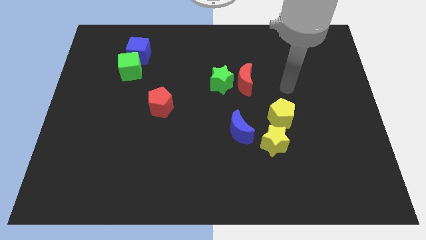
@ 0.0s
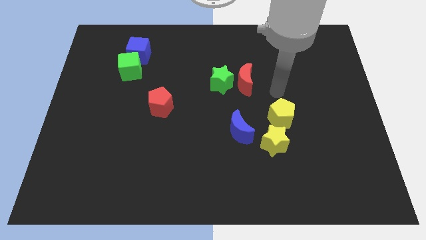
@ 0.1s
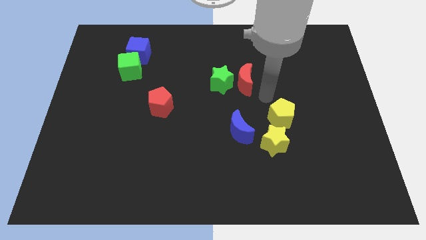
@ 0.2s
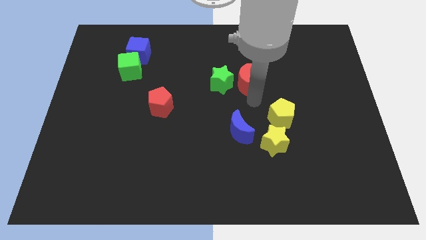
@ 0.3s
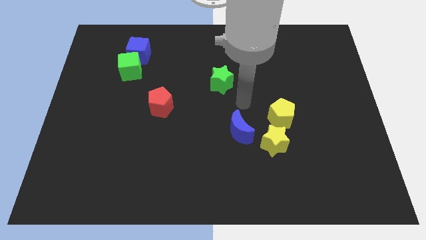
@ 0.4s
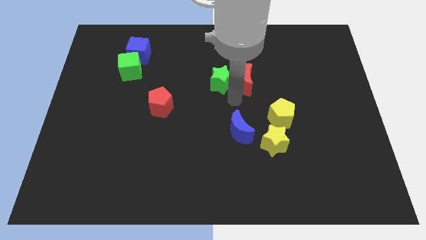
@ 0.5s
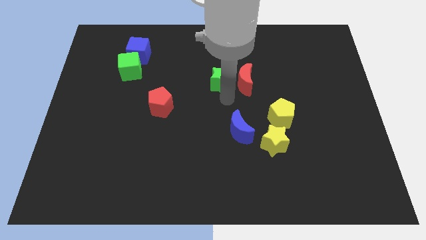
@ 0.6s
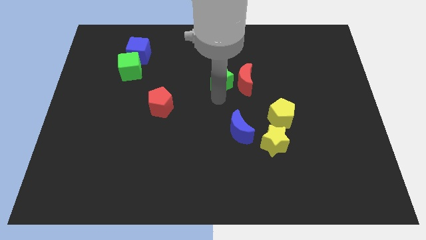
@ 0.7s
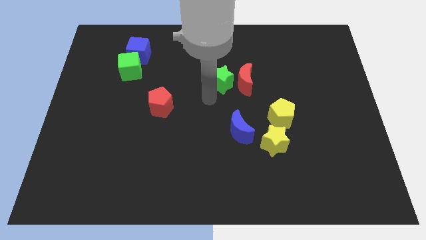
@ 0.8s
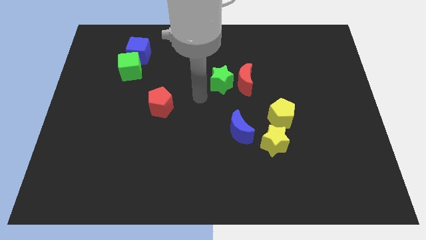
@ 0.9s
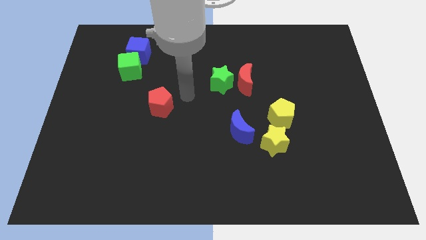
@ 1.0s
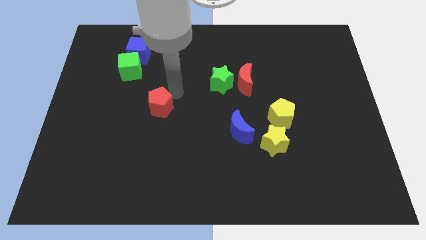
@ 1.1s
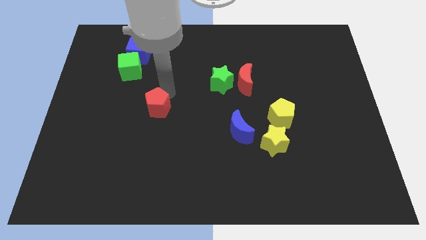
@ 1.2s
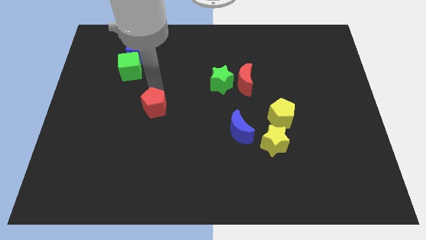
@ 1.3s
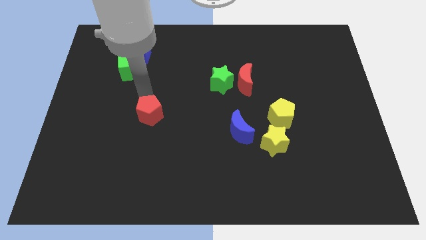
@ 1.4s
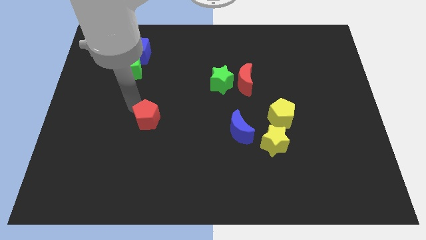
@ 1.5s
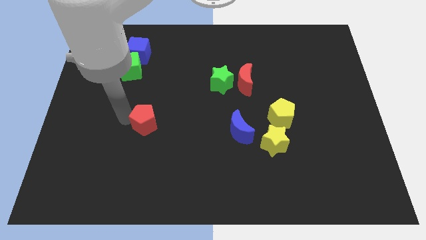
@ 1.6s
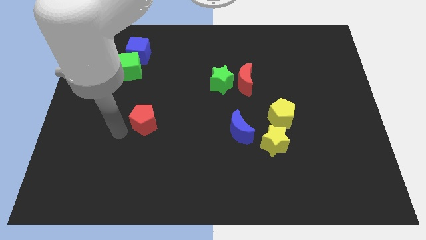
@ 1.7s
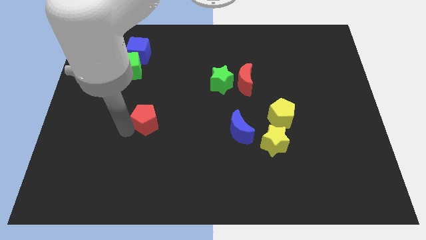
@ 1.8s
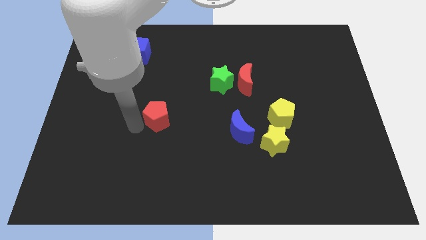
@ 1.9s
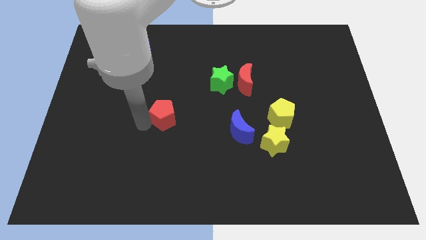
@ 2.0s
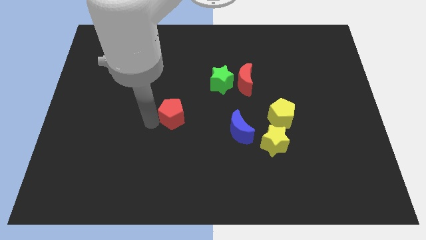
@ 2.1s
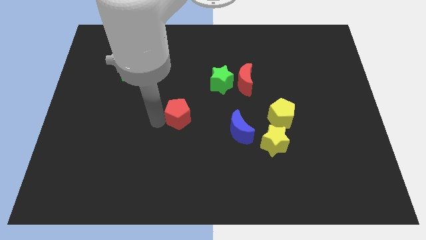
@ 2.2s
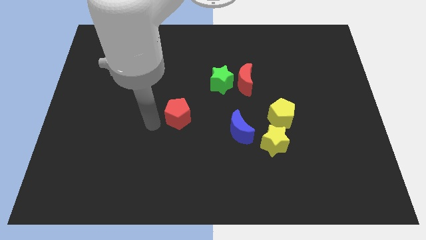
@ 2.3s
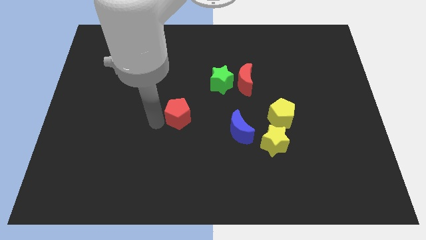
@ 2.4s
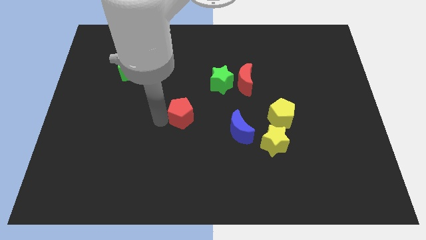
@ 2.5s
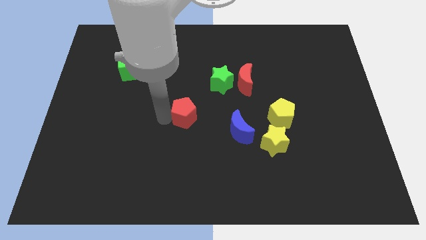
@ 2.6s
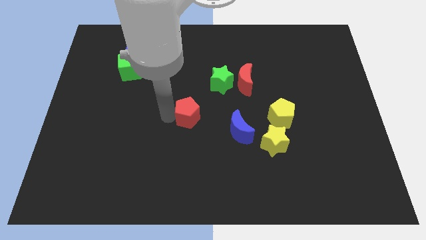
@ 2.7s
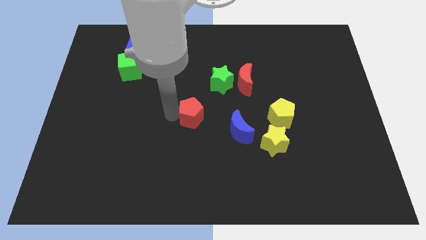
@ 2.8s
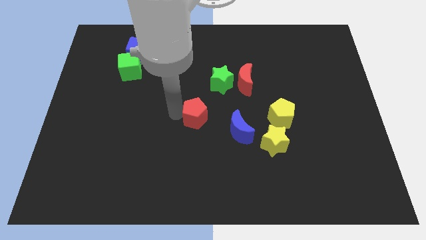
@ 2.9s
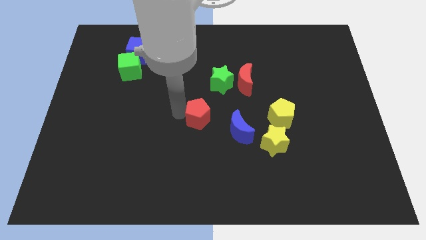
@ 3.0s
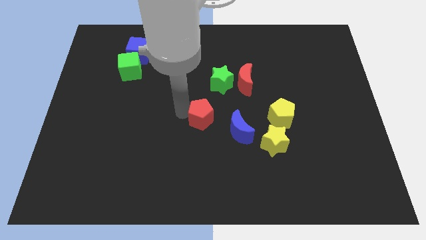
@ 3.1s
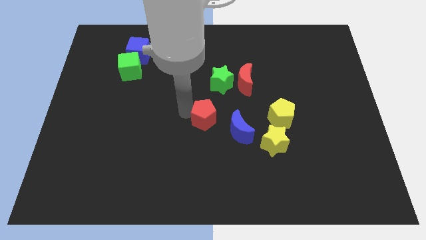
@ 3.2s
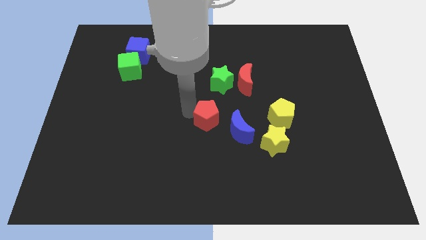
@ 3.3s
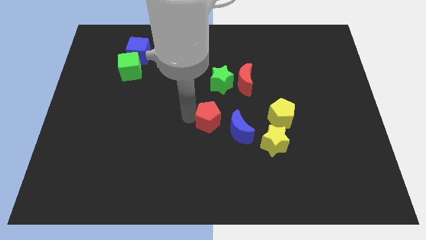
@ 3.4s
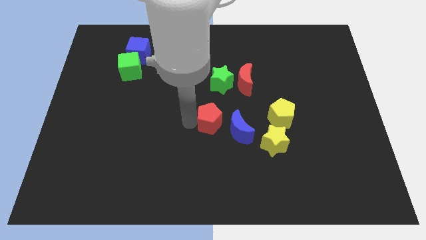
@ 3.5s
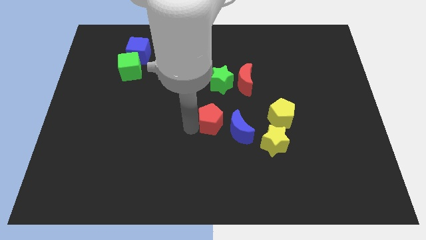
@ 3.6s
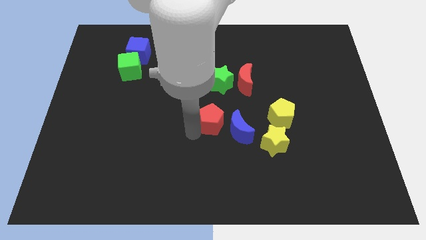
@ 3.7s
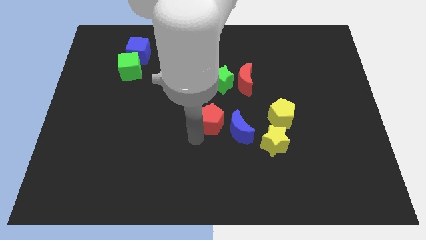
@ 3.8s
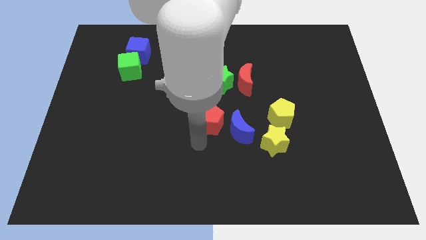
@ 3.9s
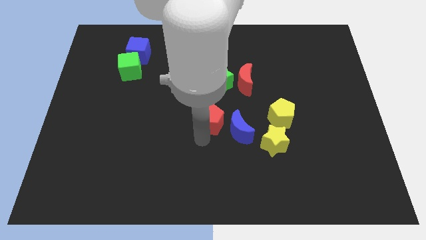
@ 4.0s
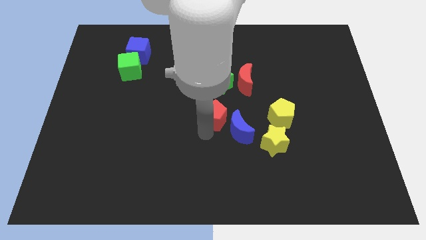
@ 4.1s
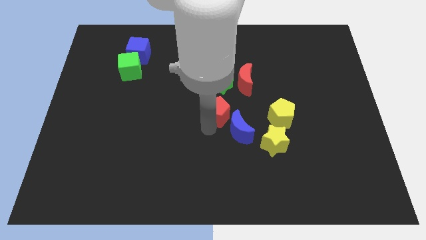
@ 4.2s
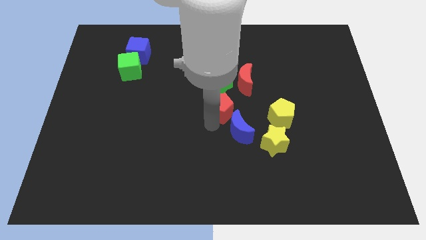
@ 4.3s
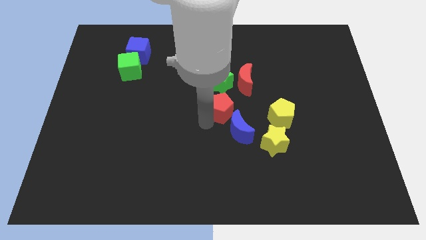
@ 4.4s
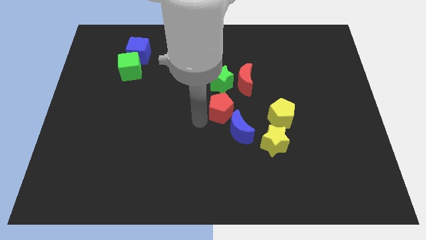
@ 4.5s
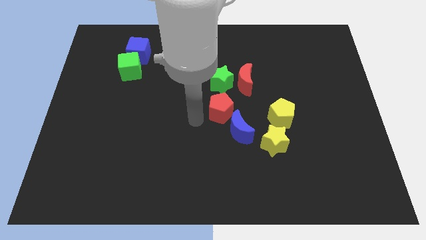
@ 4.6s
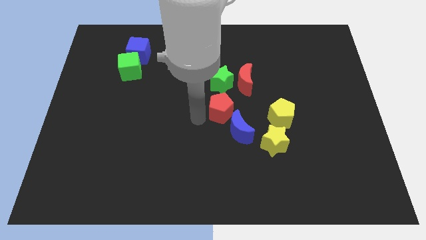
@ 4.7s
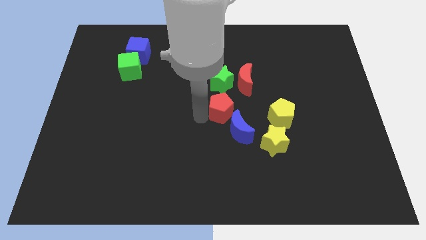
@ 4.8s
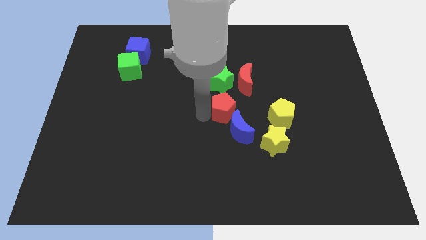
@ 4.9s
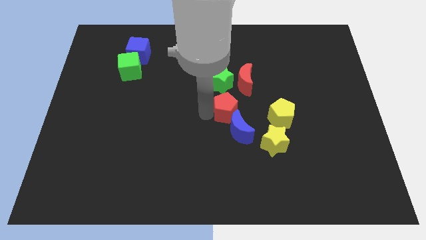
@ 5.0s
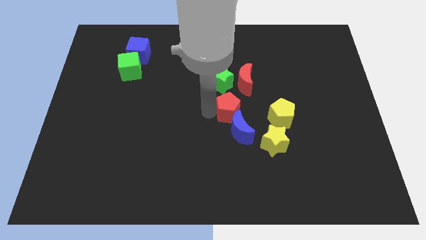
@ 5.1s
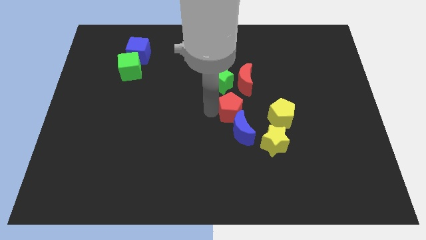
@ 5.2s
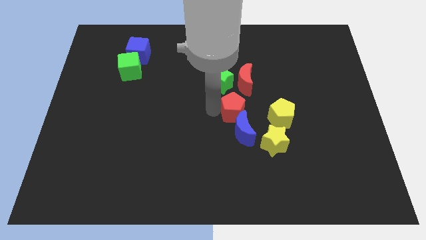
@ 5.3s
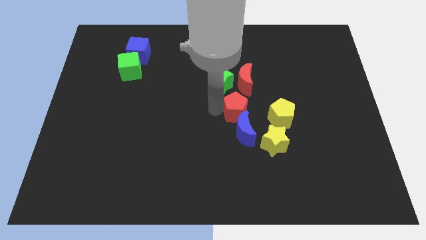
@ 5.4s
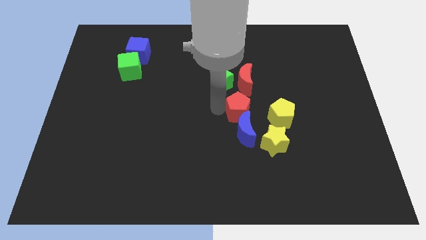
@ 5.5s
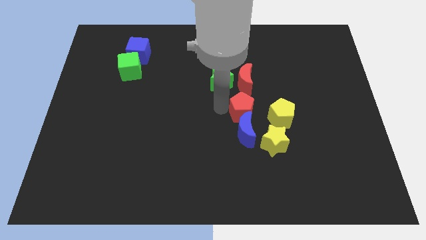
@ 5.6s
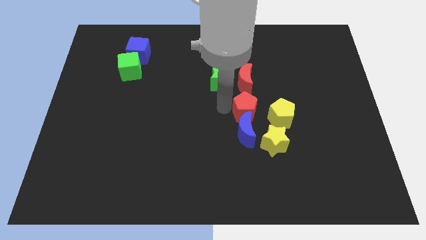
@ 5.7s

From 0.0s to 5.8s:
move the red pentagon right

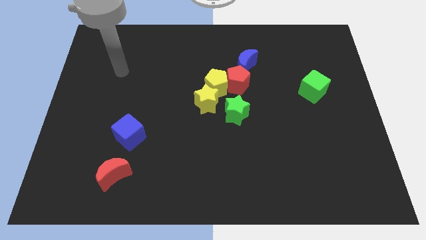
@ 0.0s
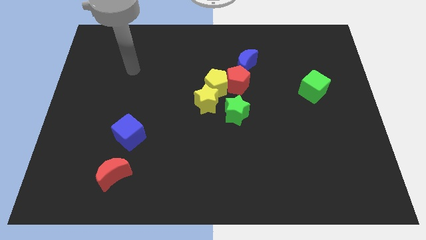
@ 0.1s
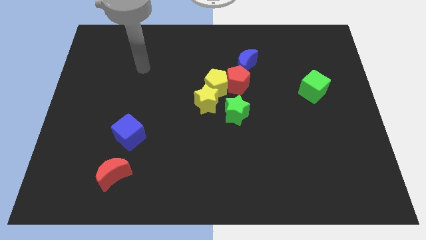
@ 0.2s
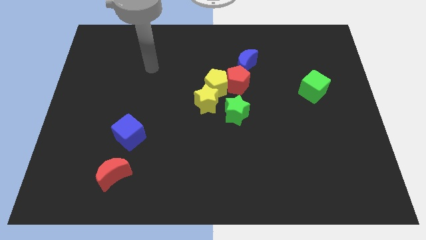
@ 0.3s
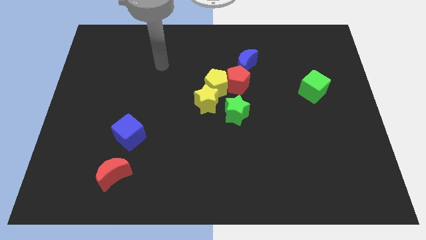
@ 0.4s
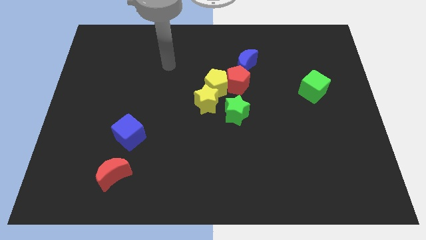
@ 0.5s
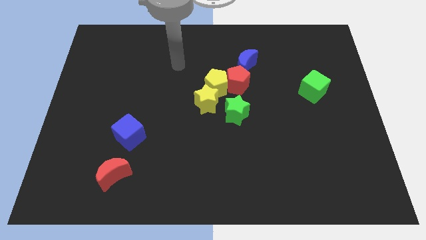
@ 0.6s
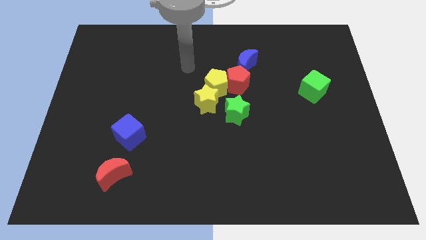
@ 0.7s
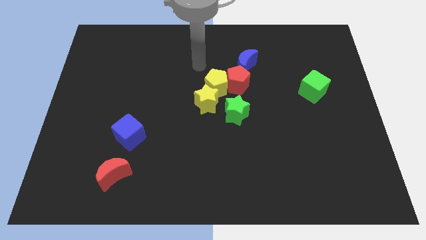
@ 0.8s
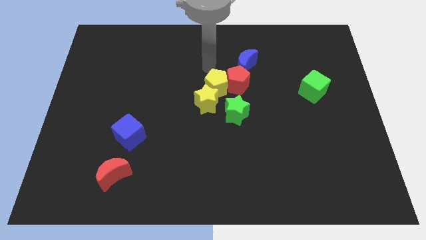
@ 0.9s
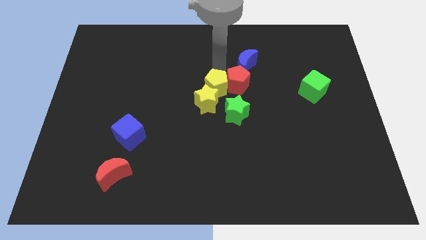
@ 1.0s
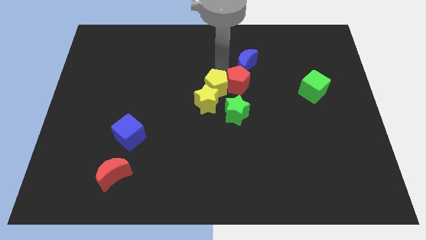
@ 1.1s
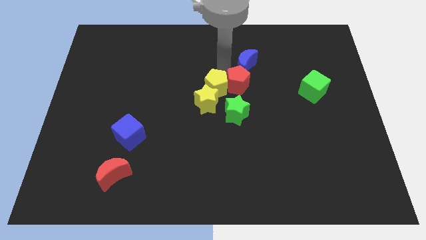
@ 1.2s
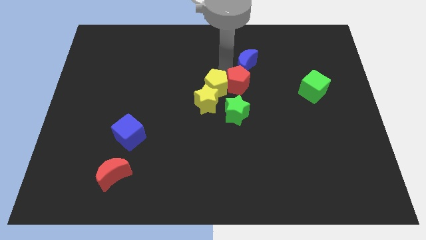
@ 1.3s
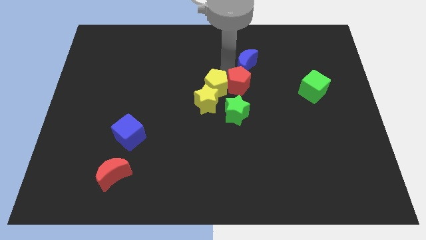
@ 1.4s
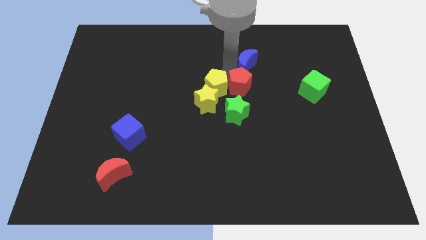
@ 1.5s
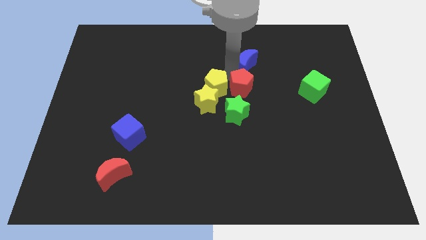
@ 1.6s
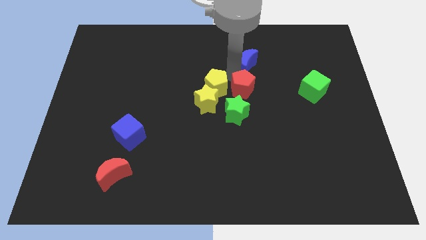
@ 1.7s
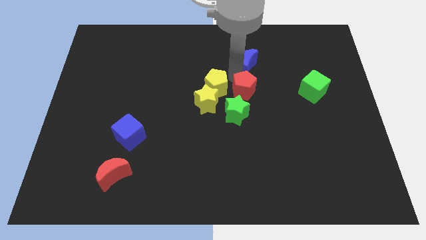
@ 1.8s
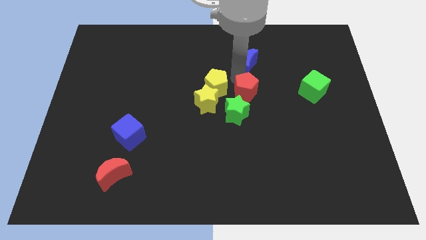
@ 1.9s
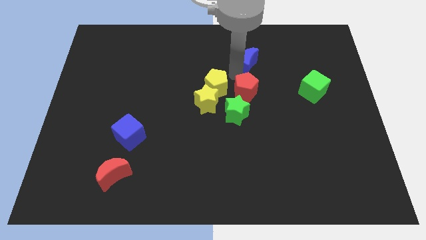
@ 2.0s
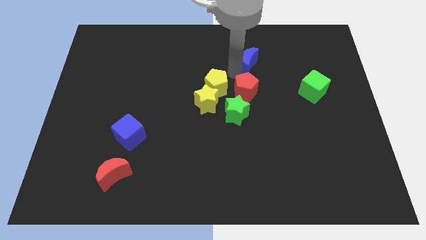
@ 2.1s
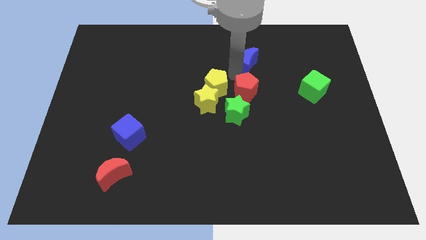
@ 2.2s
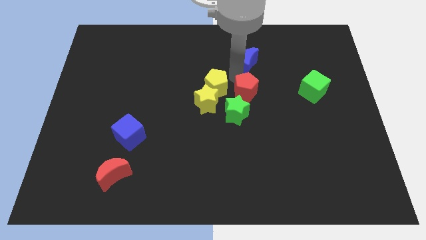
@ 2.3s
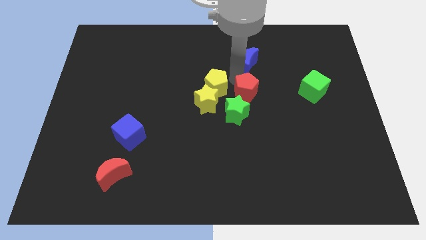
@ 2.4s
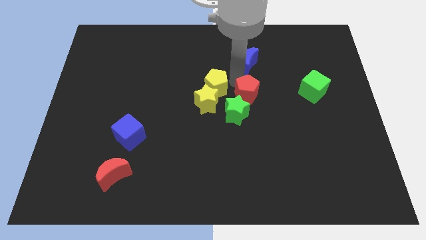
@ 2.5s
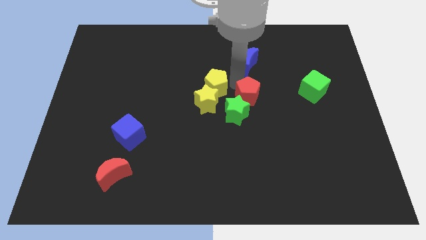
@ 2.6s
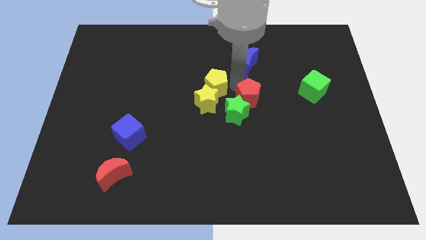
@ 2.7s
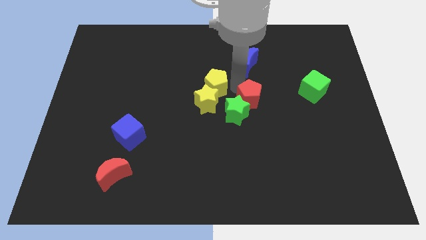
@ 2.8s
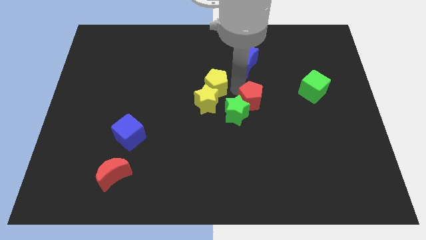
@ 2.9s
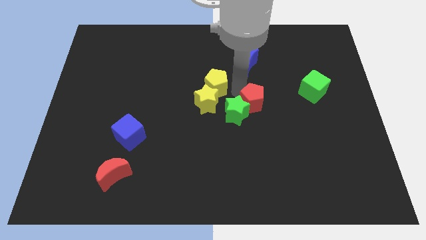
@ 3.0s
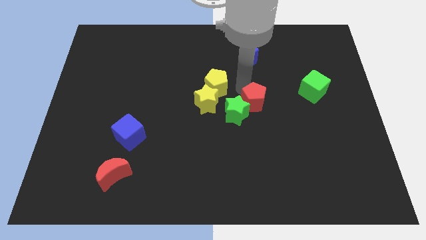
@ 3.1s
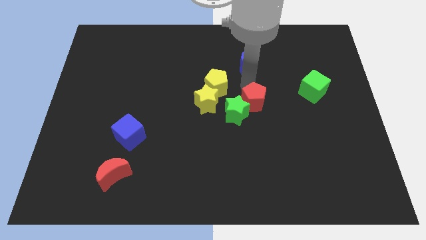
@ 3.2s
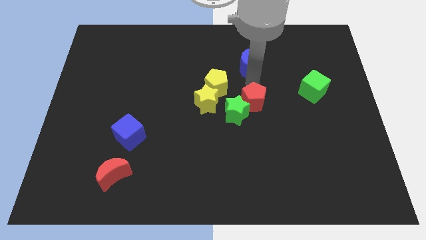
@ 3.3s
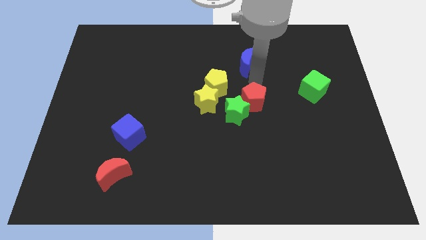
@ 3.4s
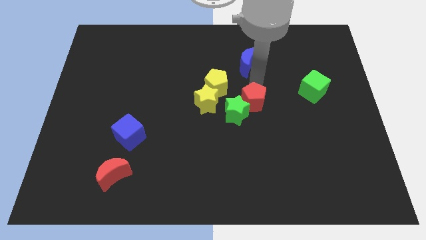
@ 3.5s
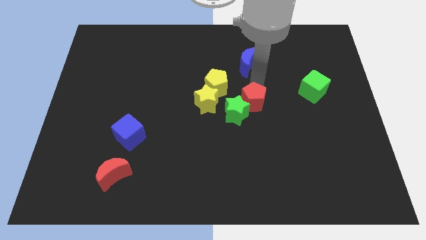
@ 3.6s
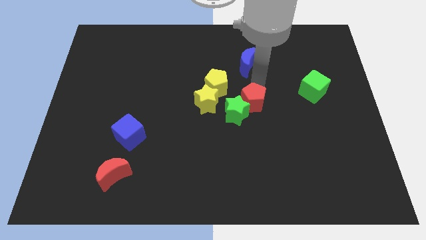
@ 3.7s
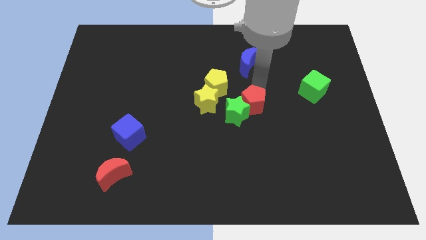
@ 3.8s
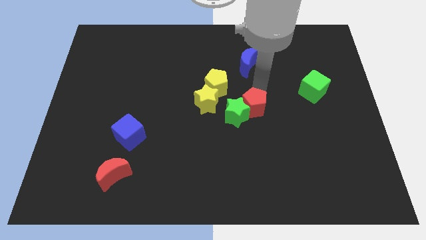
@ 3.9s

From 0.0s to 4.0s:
slide the red pentagon downwards a little
